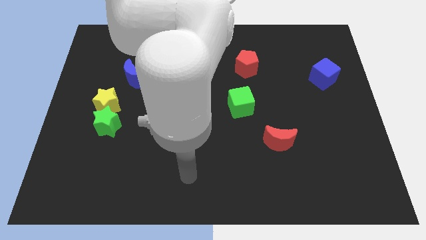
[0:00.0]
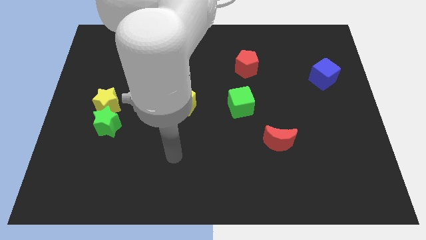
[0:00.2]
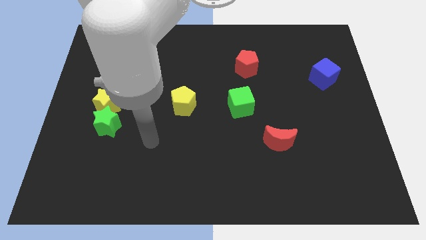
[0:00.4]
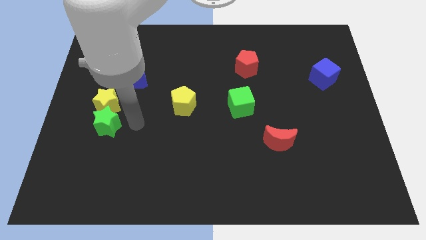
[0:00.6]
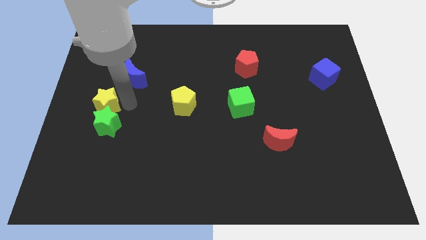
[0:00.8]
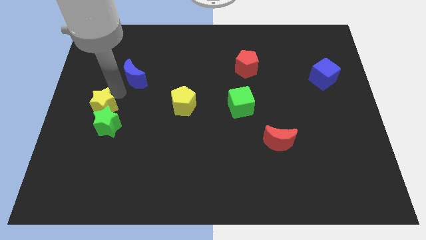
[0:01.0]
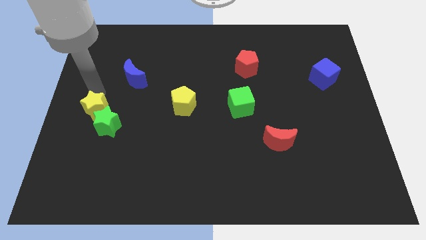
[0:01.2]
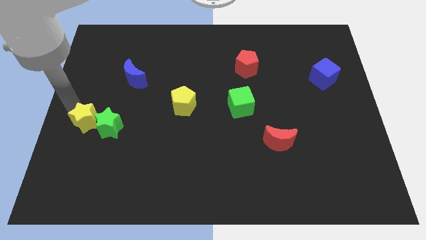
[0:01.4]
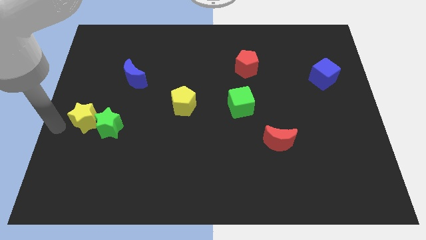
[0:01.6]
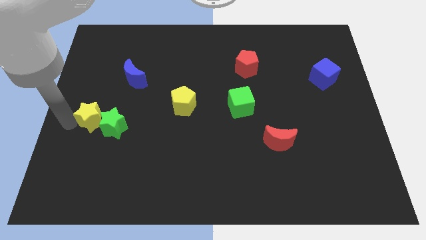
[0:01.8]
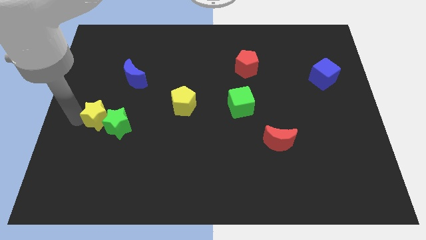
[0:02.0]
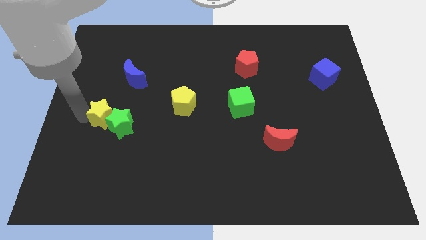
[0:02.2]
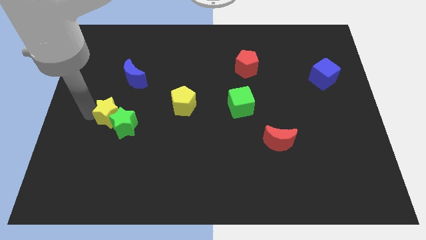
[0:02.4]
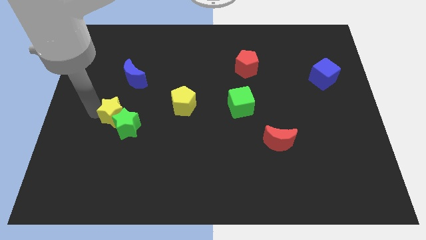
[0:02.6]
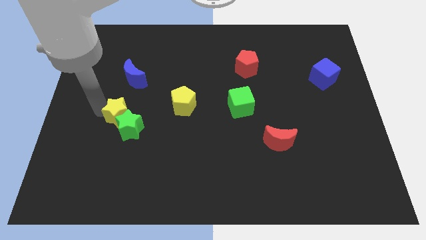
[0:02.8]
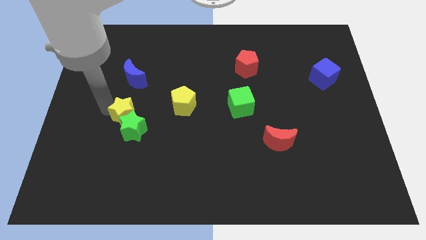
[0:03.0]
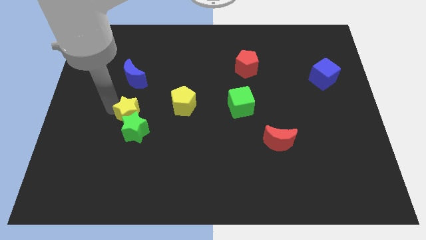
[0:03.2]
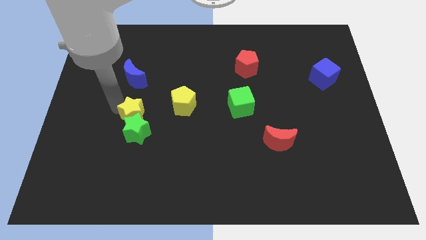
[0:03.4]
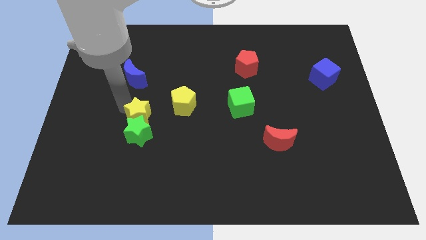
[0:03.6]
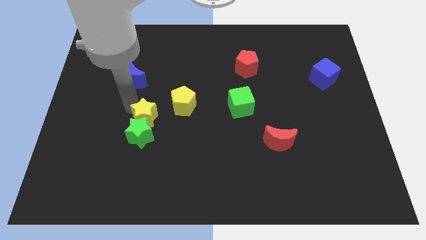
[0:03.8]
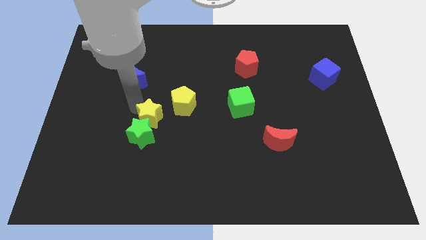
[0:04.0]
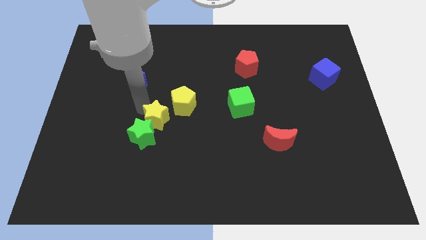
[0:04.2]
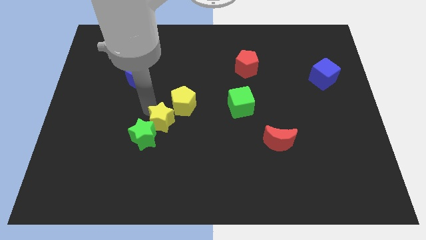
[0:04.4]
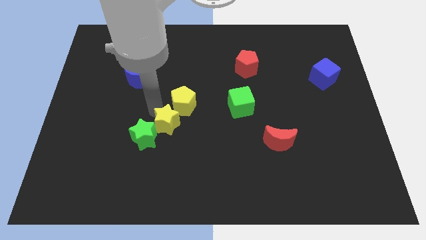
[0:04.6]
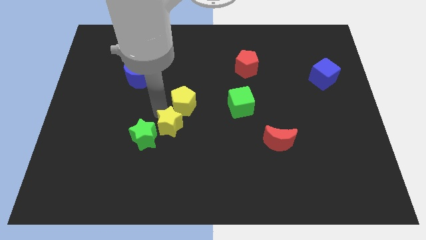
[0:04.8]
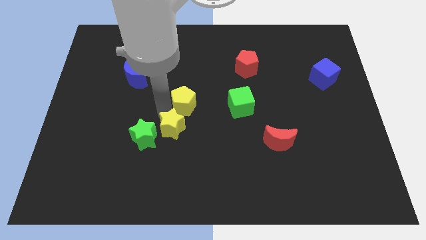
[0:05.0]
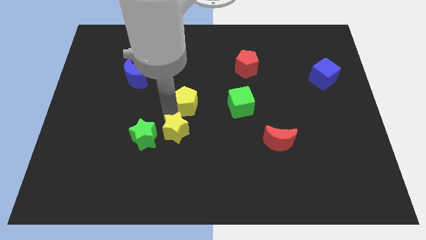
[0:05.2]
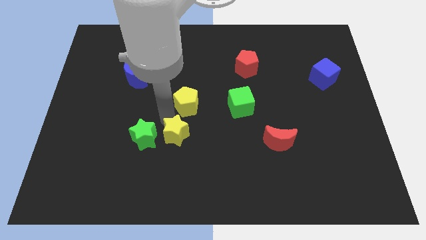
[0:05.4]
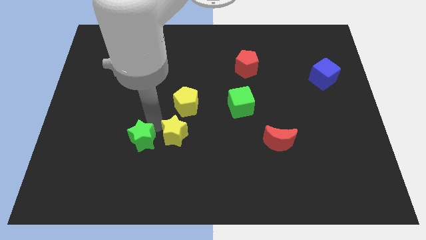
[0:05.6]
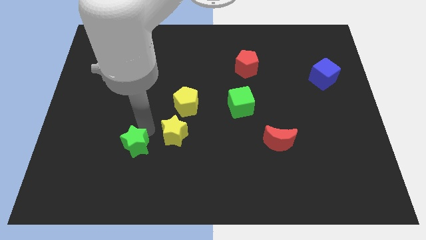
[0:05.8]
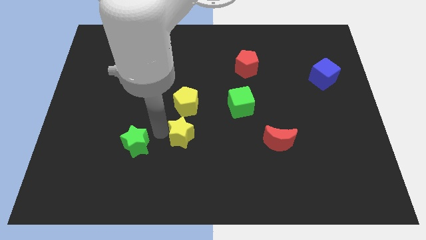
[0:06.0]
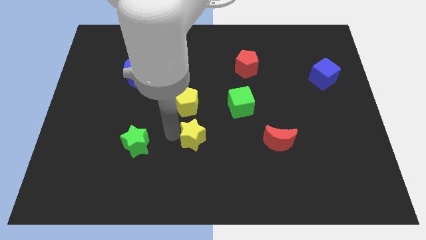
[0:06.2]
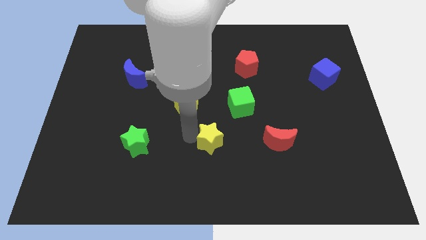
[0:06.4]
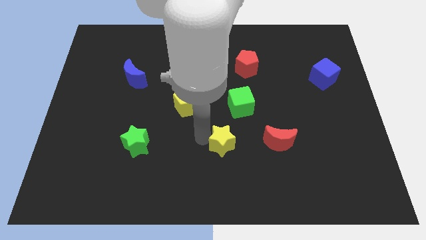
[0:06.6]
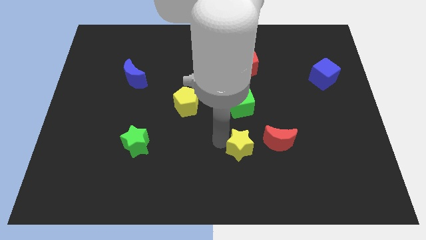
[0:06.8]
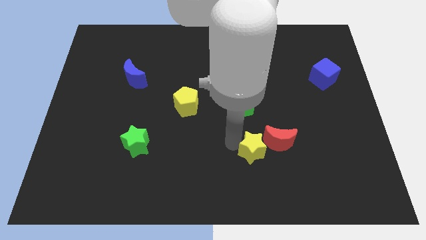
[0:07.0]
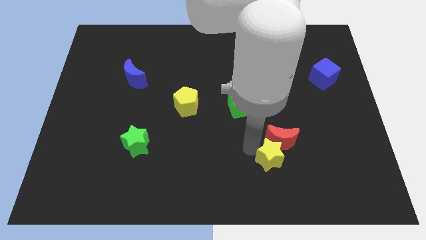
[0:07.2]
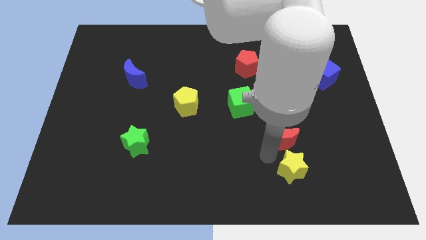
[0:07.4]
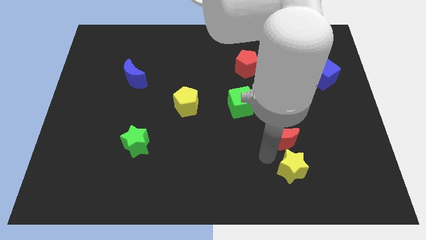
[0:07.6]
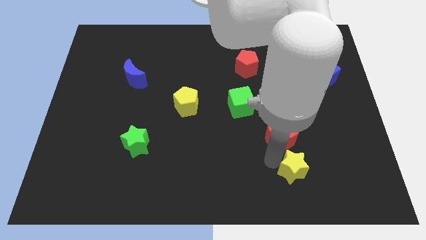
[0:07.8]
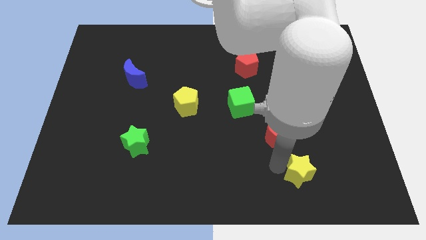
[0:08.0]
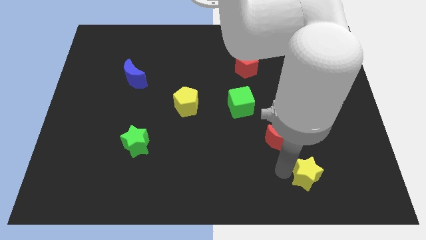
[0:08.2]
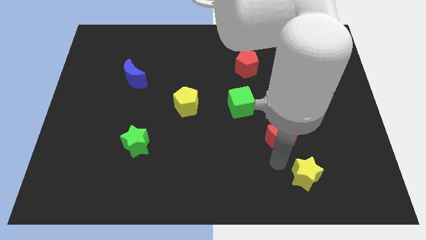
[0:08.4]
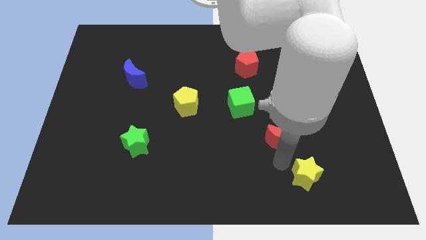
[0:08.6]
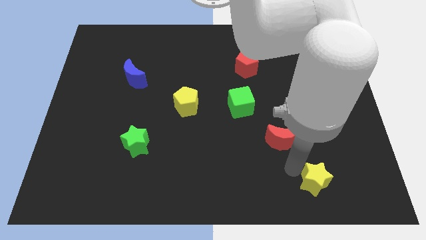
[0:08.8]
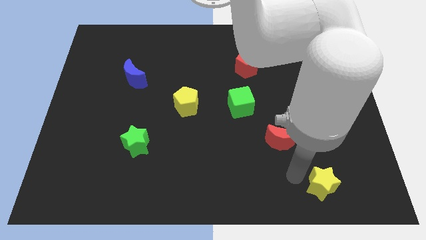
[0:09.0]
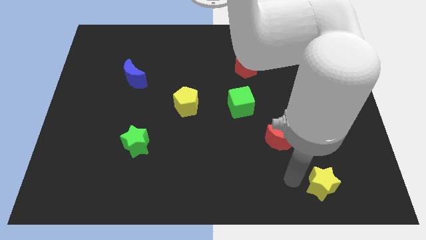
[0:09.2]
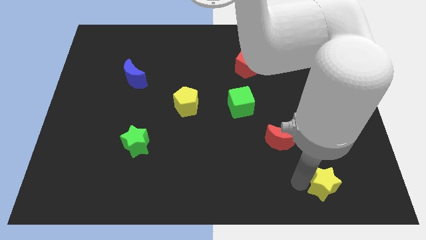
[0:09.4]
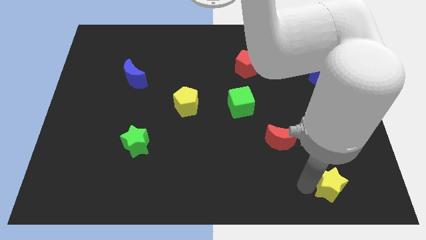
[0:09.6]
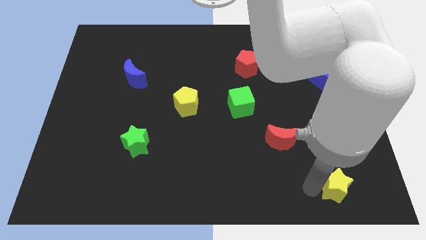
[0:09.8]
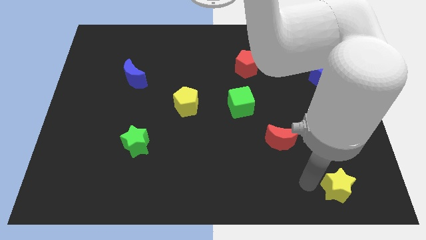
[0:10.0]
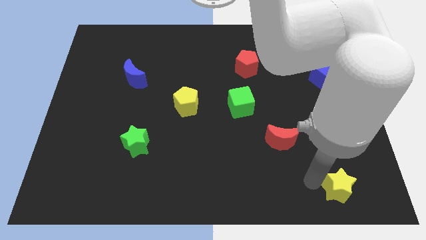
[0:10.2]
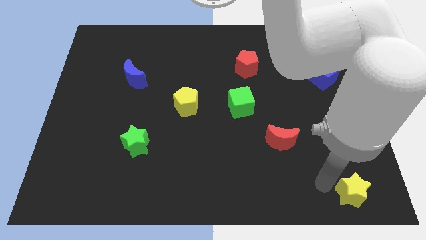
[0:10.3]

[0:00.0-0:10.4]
put the yellow star to the lower right corner

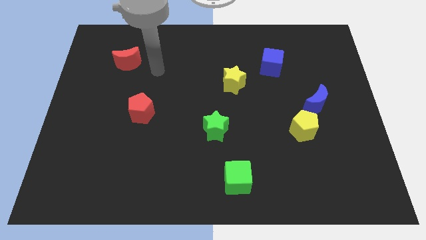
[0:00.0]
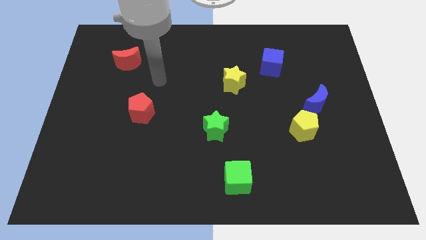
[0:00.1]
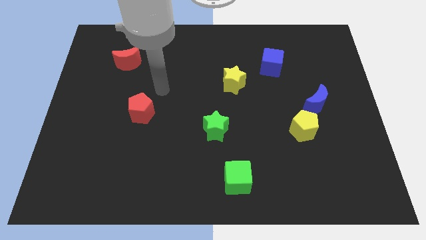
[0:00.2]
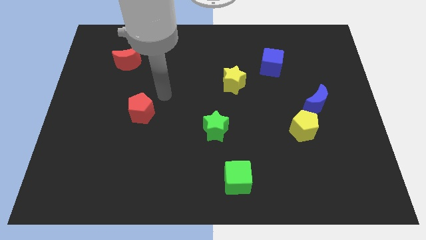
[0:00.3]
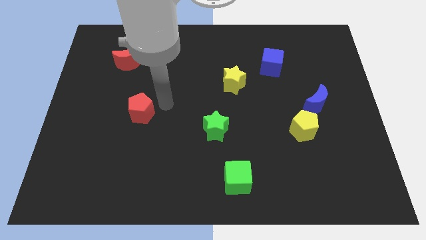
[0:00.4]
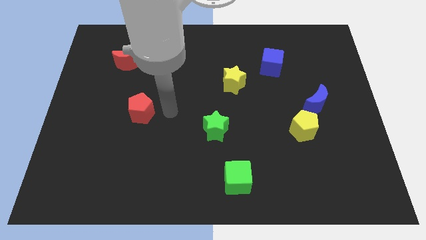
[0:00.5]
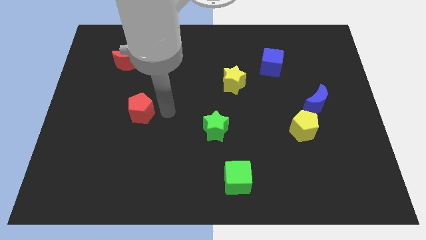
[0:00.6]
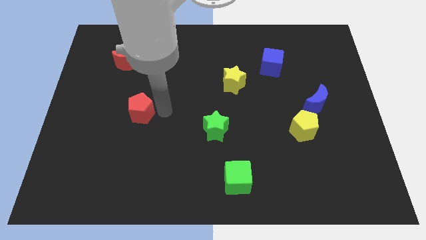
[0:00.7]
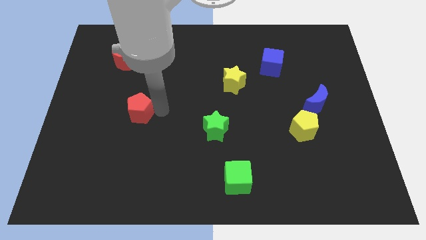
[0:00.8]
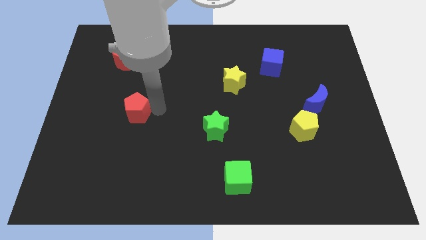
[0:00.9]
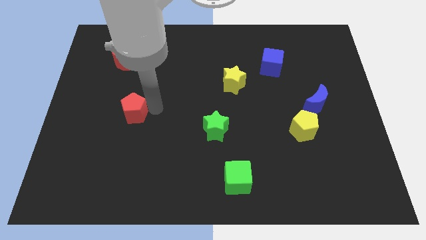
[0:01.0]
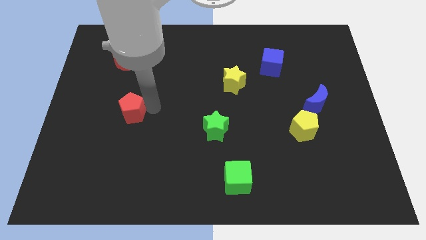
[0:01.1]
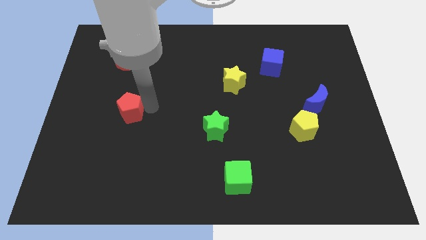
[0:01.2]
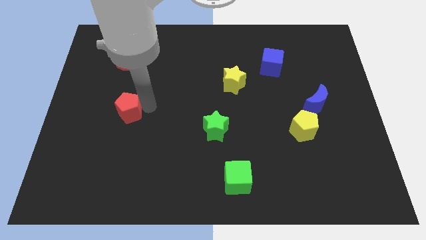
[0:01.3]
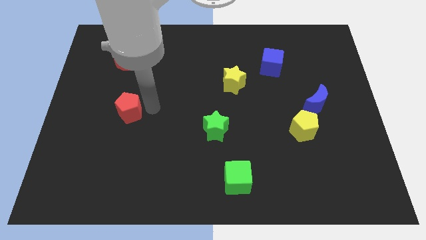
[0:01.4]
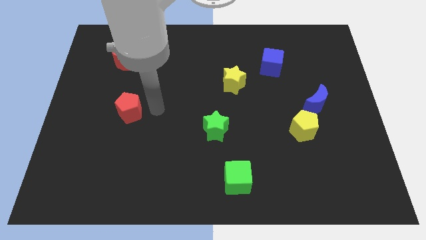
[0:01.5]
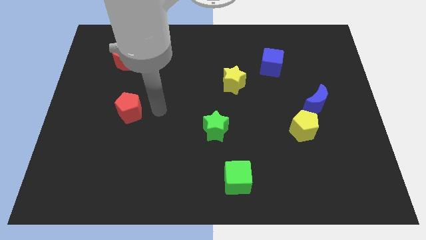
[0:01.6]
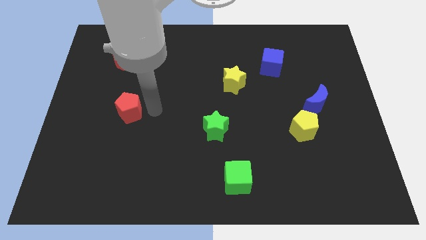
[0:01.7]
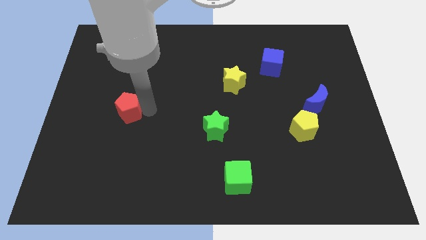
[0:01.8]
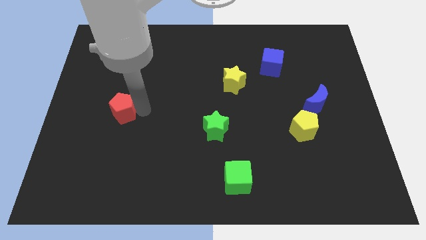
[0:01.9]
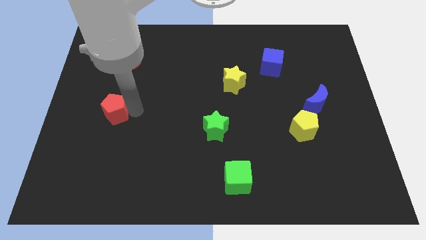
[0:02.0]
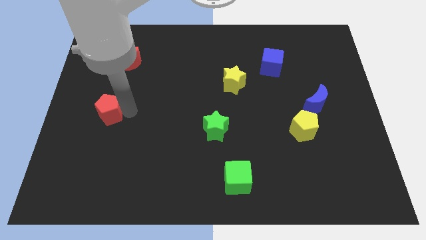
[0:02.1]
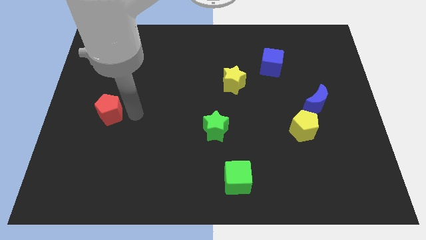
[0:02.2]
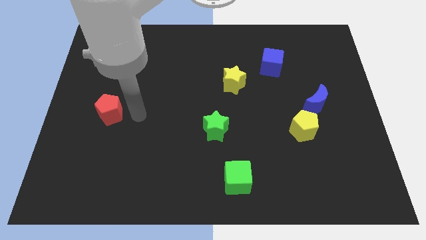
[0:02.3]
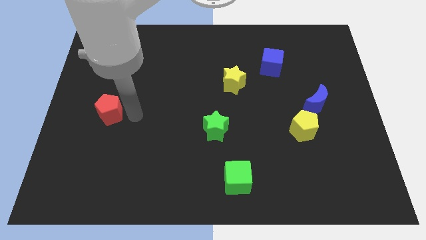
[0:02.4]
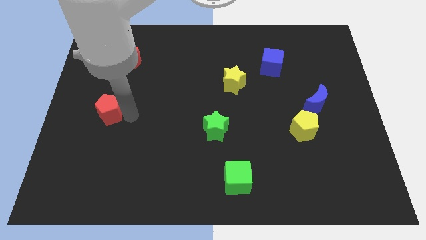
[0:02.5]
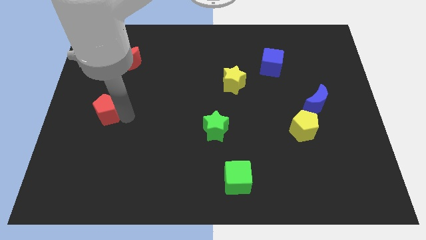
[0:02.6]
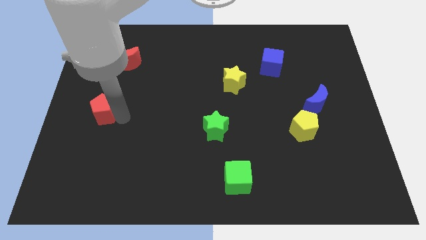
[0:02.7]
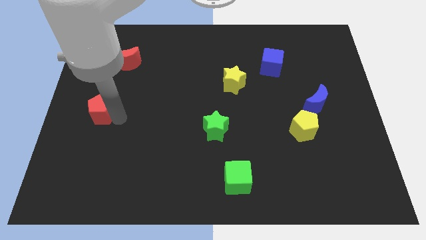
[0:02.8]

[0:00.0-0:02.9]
slide the red pentagon to the left side
